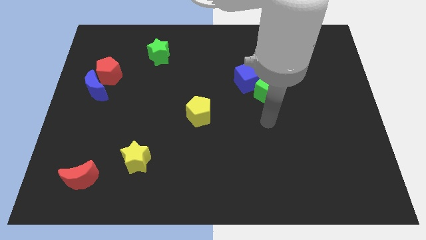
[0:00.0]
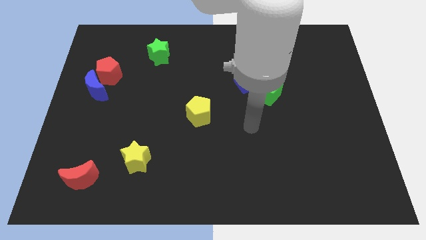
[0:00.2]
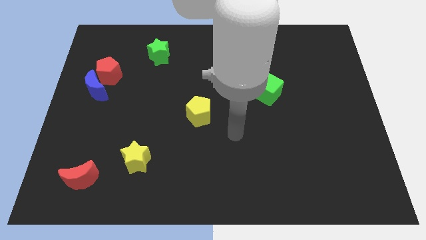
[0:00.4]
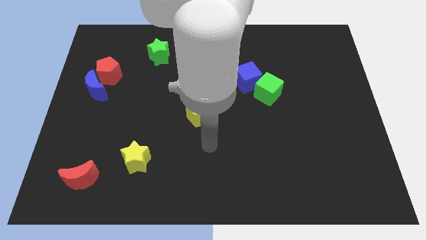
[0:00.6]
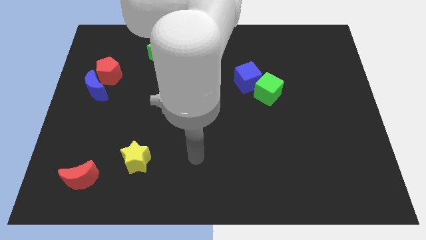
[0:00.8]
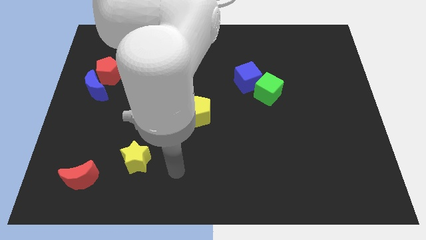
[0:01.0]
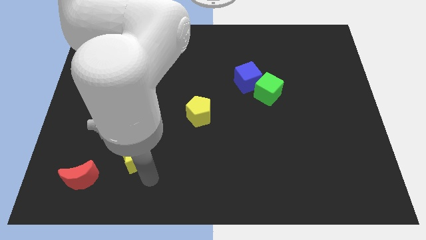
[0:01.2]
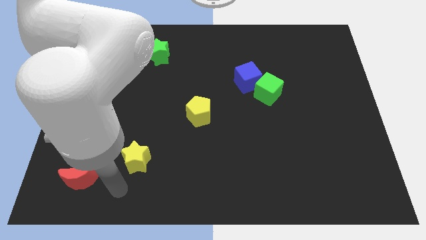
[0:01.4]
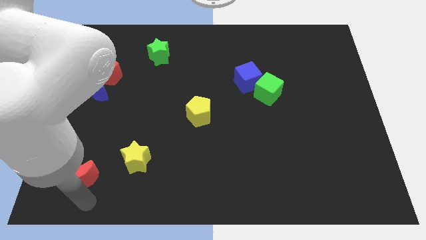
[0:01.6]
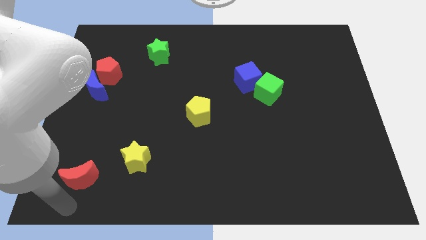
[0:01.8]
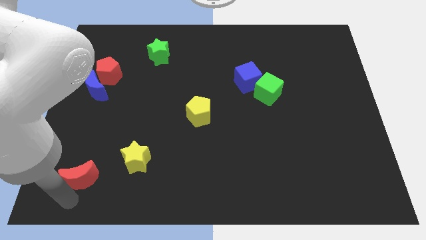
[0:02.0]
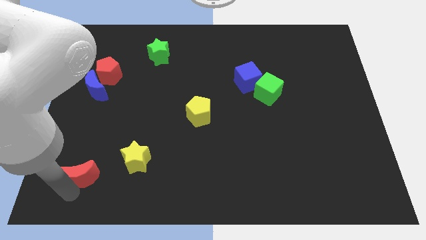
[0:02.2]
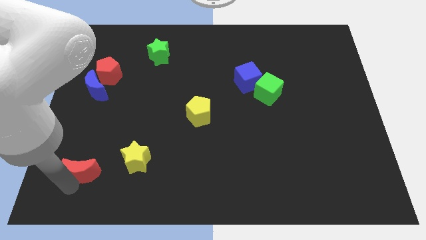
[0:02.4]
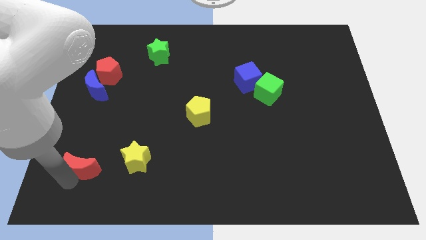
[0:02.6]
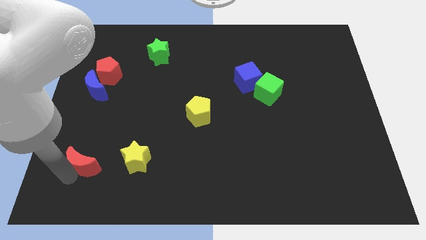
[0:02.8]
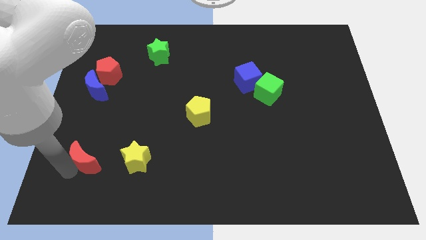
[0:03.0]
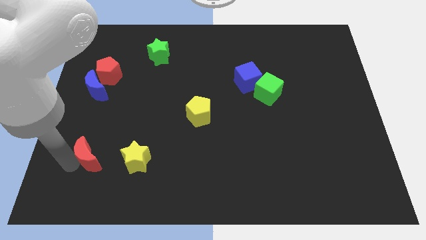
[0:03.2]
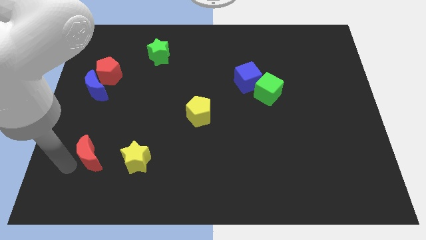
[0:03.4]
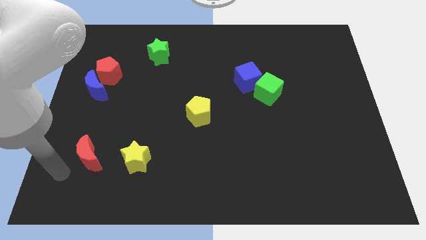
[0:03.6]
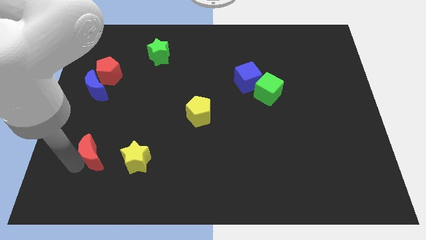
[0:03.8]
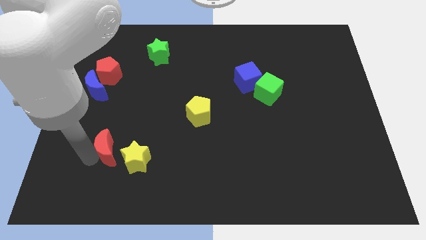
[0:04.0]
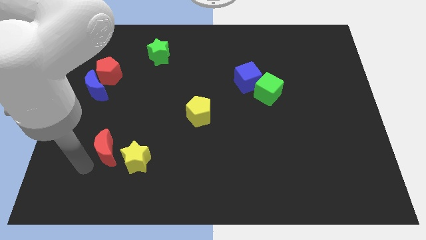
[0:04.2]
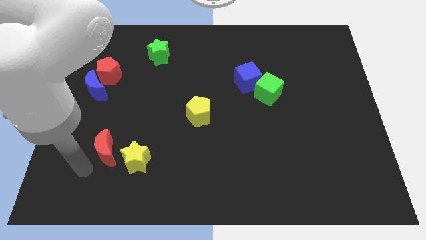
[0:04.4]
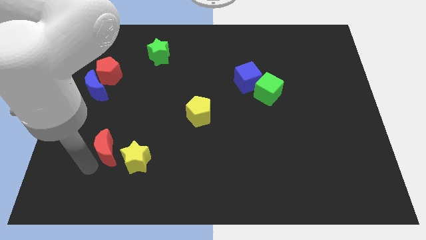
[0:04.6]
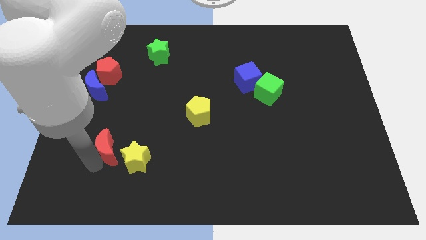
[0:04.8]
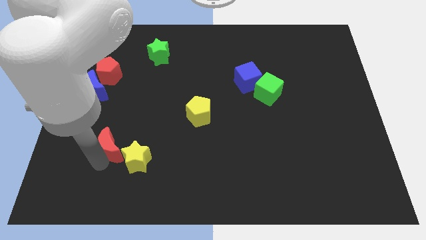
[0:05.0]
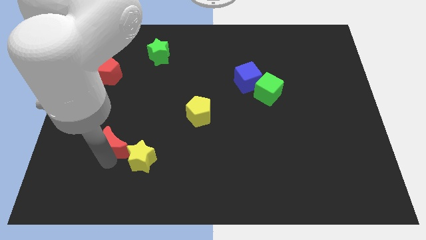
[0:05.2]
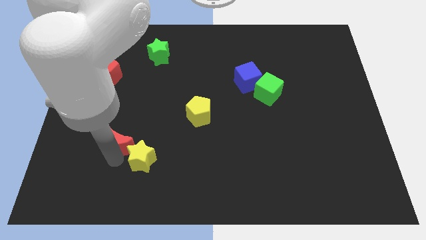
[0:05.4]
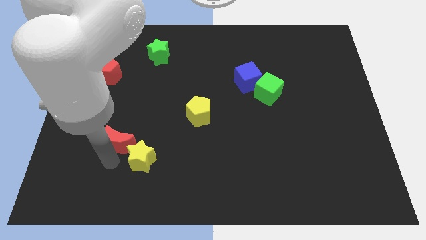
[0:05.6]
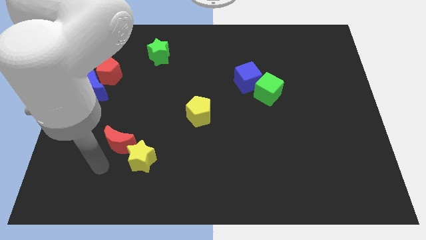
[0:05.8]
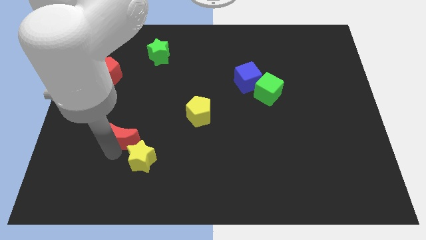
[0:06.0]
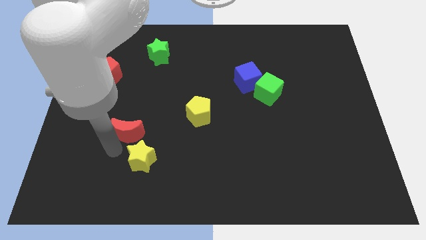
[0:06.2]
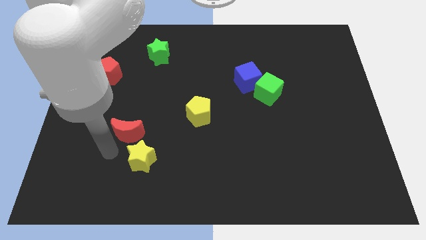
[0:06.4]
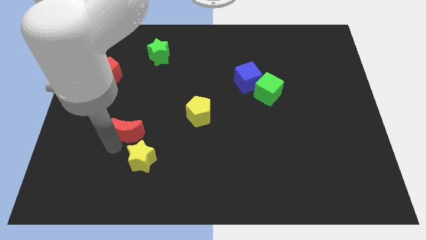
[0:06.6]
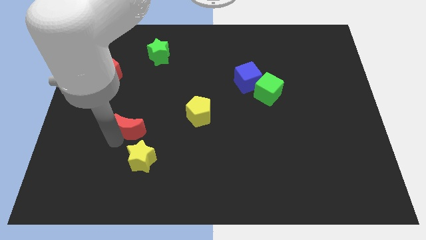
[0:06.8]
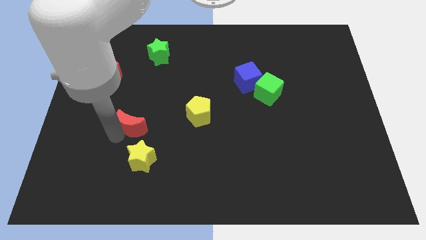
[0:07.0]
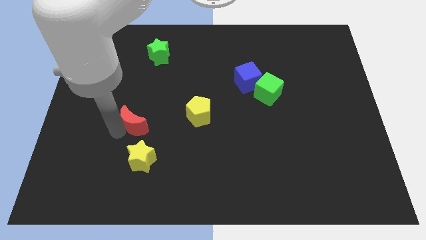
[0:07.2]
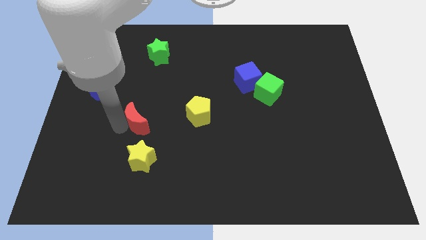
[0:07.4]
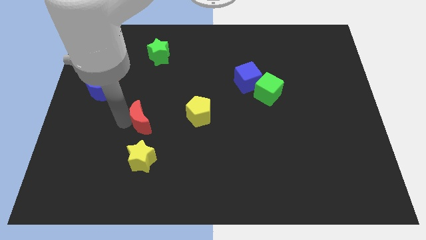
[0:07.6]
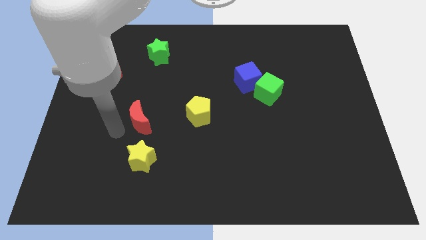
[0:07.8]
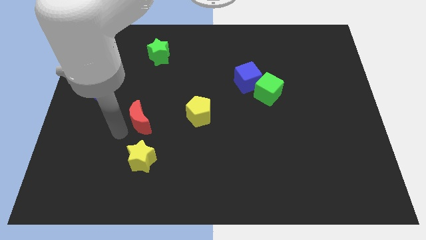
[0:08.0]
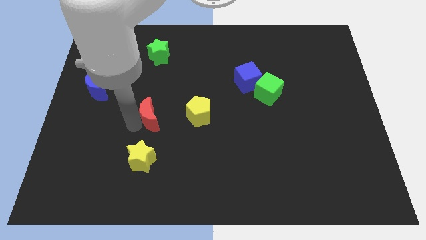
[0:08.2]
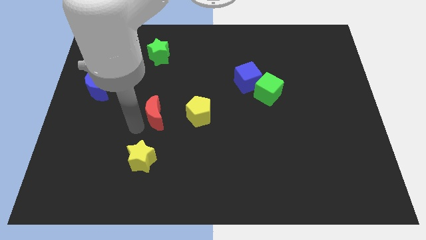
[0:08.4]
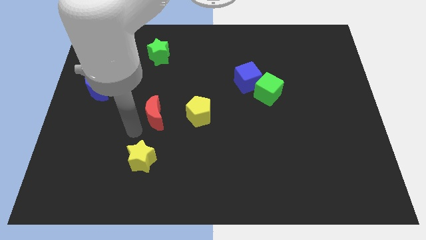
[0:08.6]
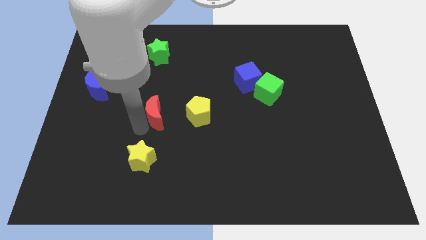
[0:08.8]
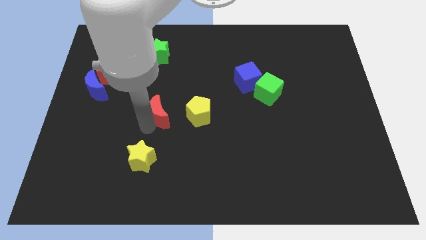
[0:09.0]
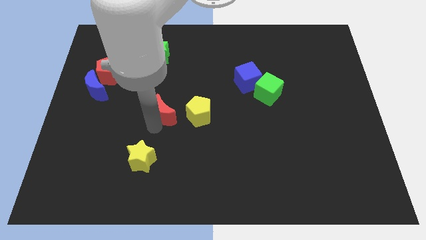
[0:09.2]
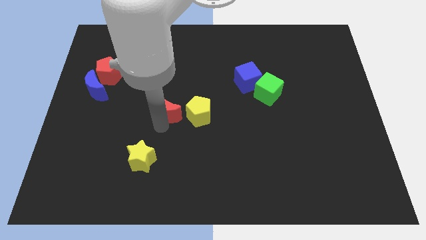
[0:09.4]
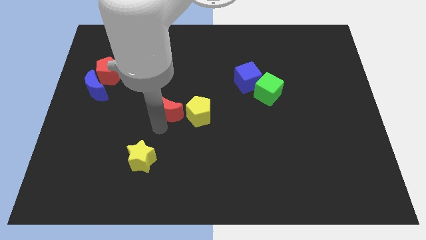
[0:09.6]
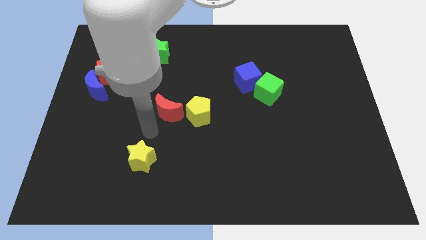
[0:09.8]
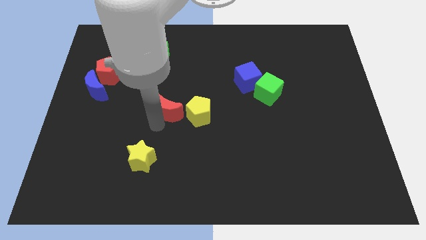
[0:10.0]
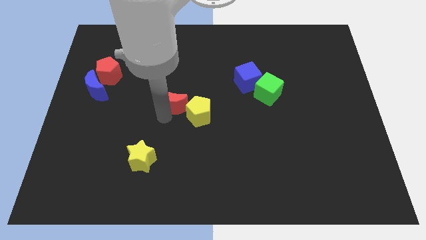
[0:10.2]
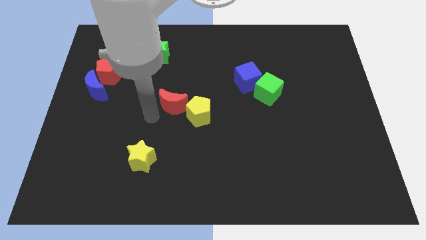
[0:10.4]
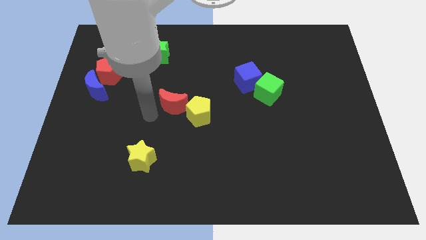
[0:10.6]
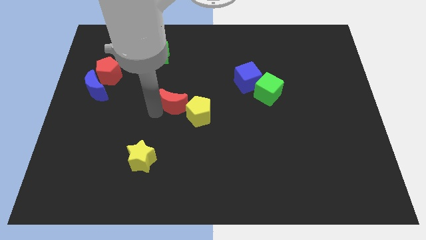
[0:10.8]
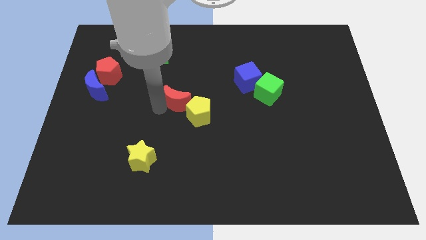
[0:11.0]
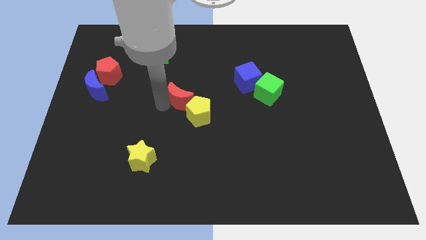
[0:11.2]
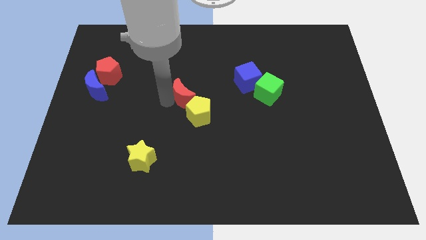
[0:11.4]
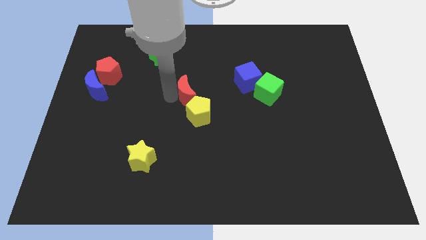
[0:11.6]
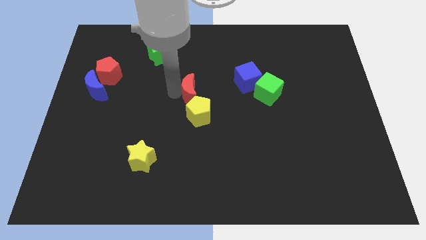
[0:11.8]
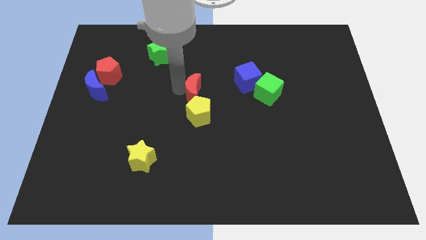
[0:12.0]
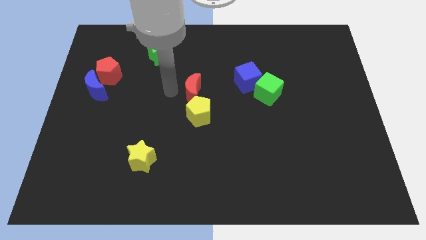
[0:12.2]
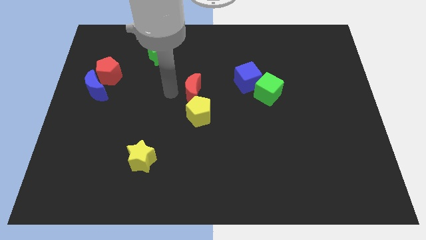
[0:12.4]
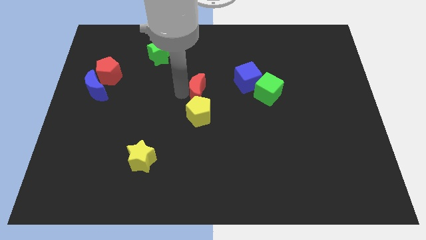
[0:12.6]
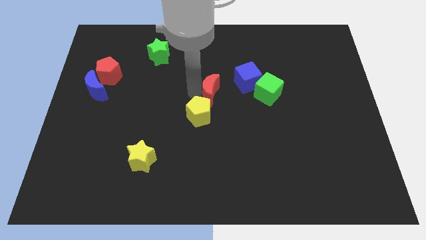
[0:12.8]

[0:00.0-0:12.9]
put the red moon to the bottom left of the blue cube

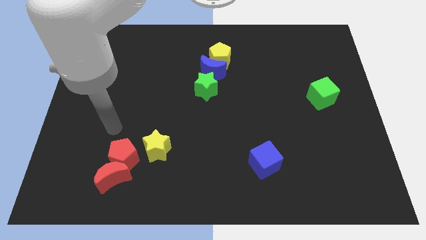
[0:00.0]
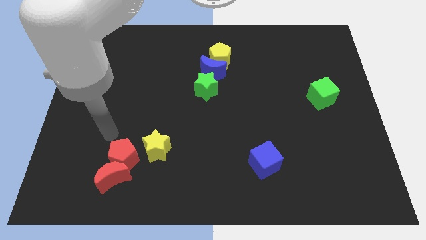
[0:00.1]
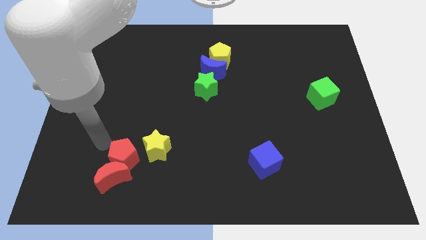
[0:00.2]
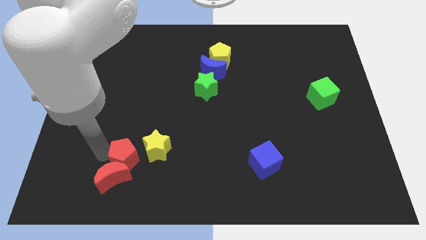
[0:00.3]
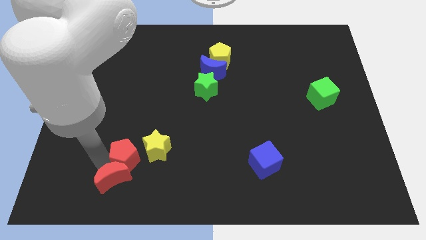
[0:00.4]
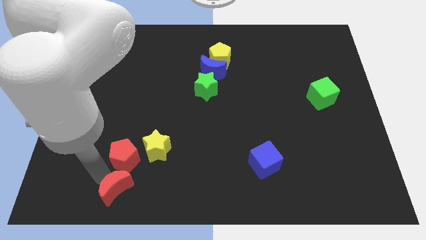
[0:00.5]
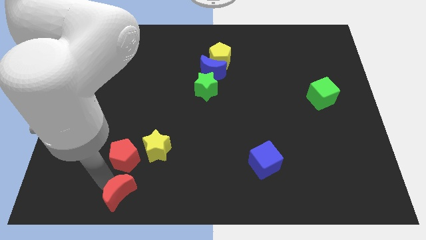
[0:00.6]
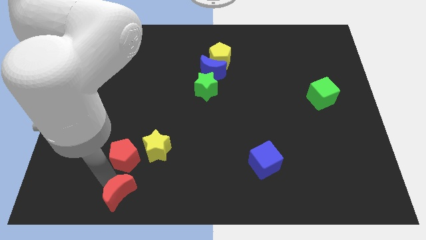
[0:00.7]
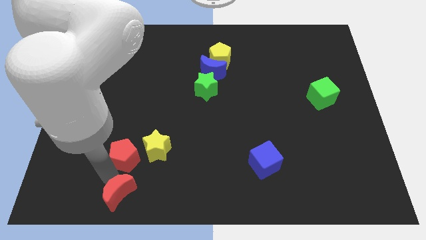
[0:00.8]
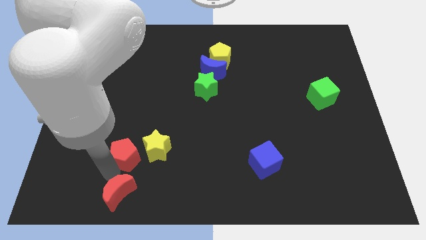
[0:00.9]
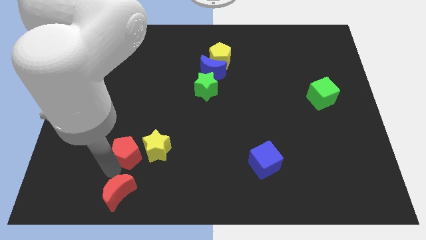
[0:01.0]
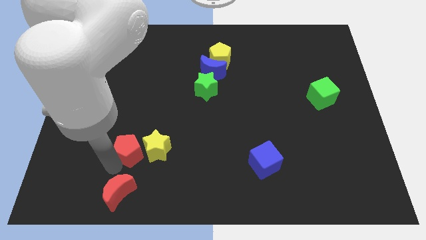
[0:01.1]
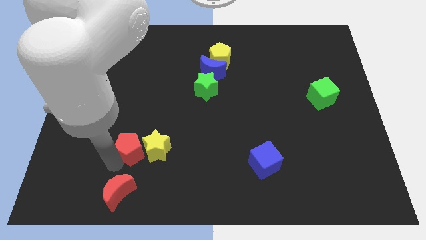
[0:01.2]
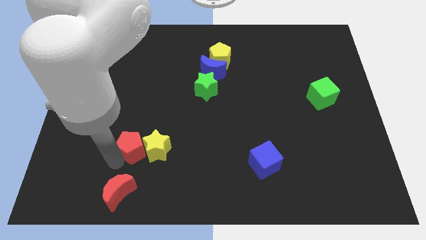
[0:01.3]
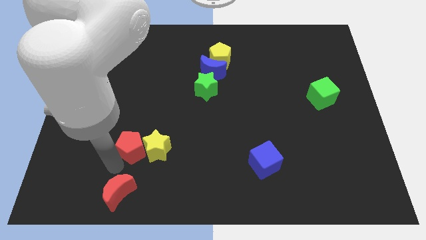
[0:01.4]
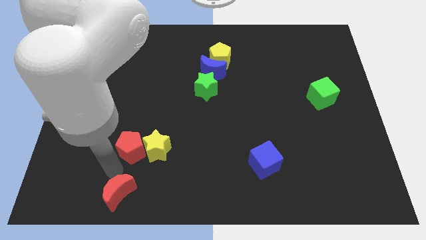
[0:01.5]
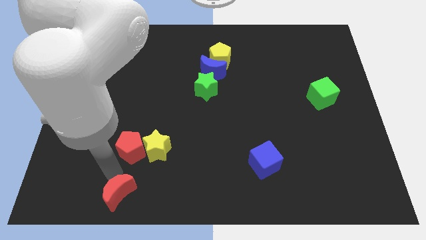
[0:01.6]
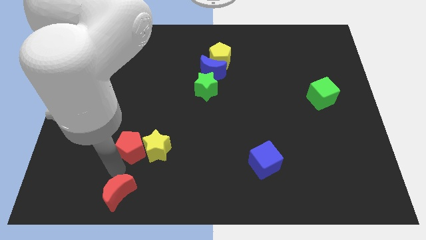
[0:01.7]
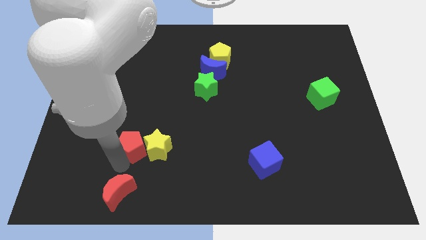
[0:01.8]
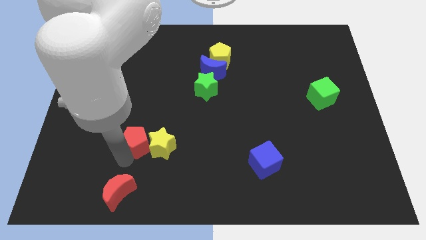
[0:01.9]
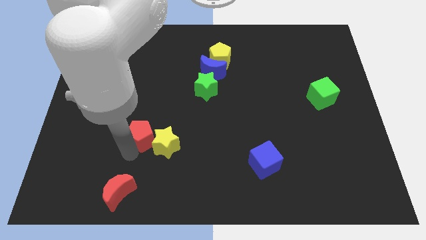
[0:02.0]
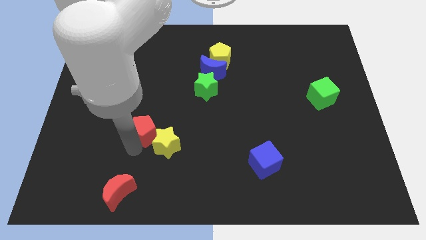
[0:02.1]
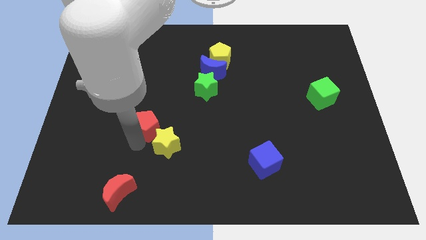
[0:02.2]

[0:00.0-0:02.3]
push the red pentagon above the yellow star
